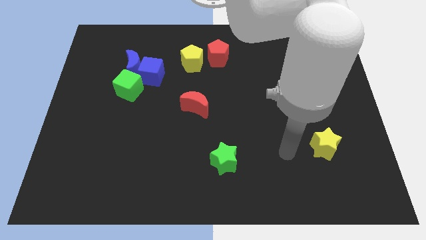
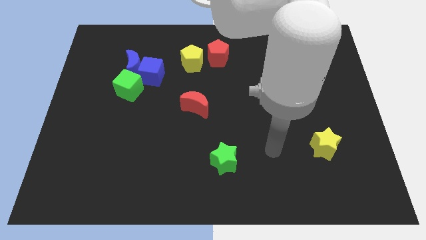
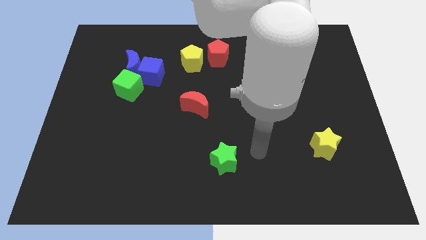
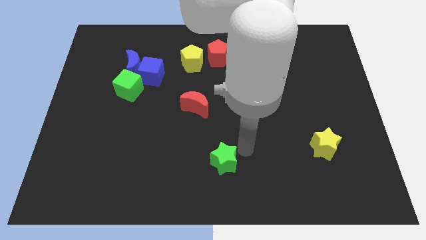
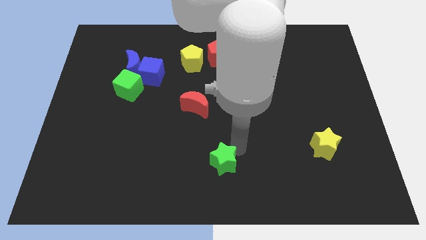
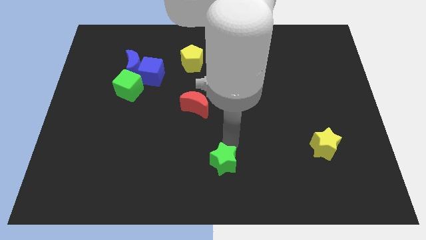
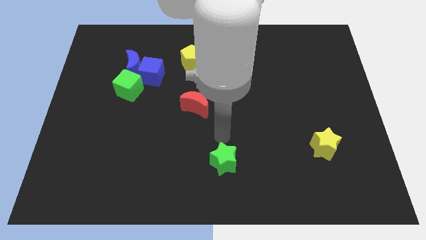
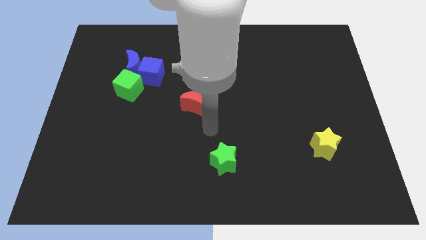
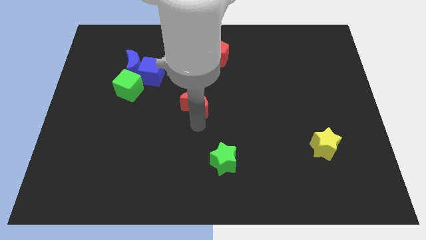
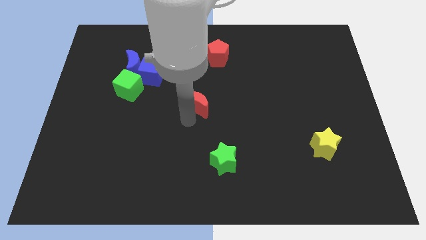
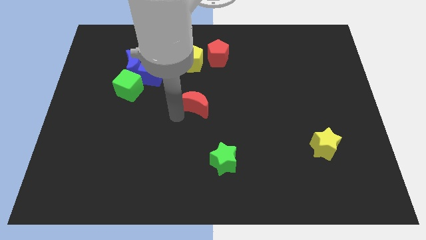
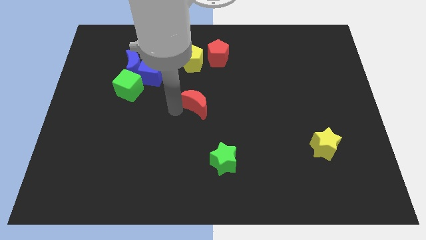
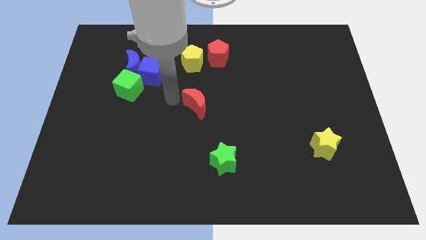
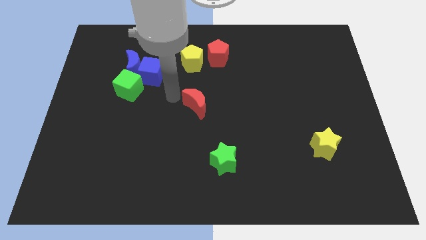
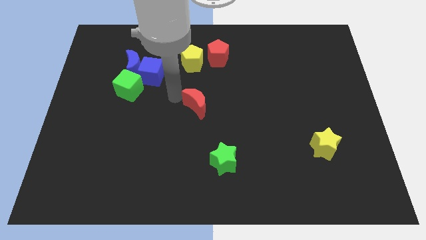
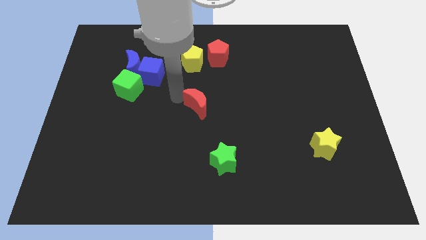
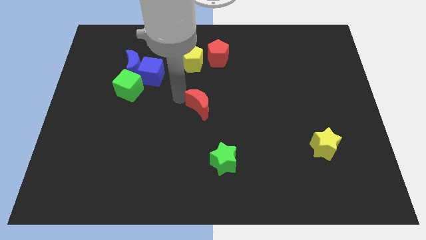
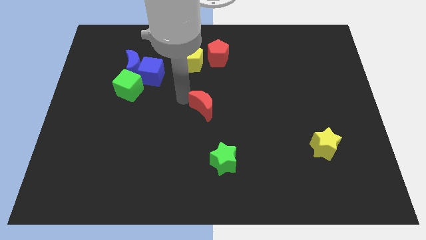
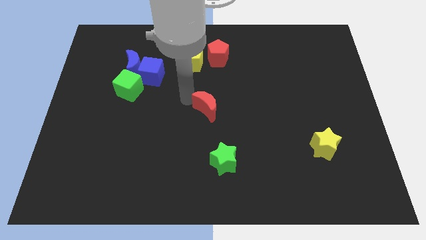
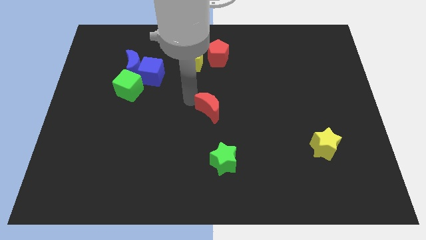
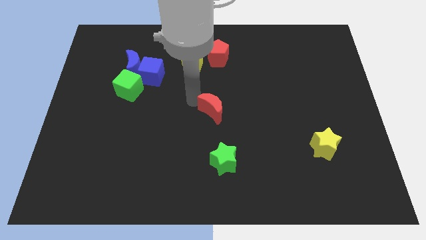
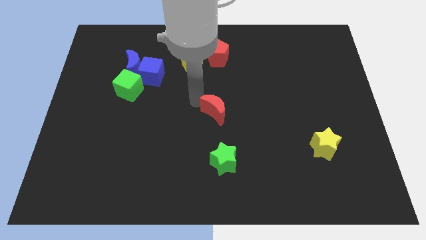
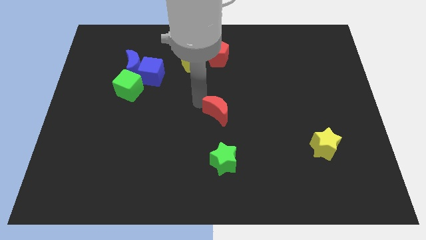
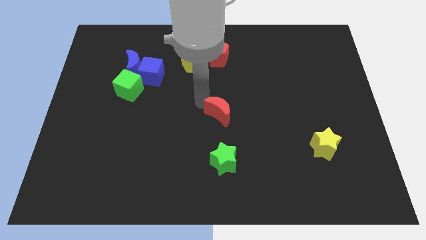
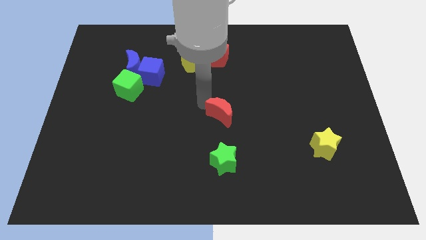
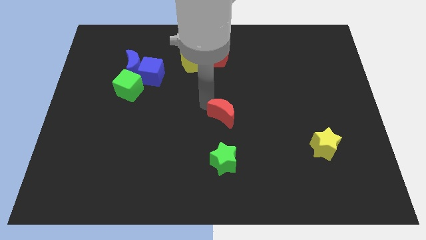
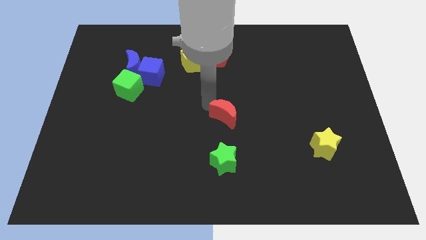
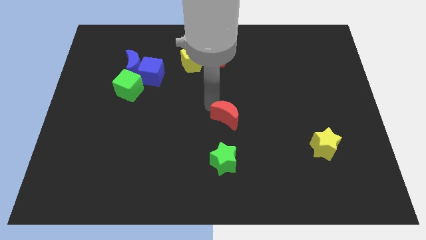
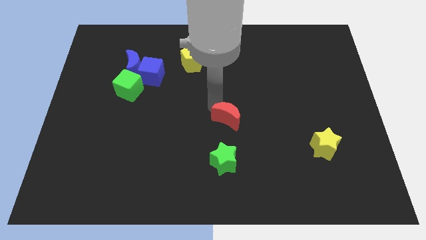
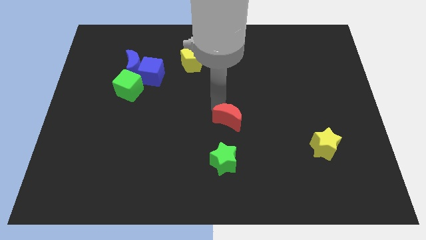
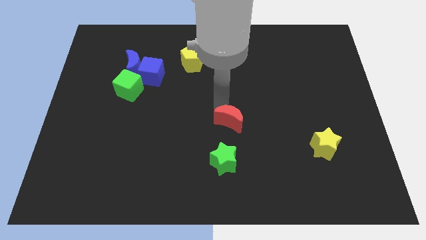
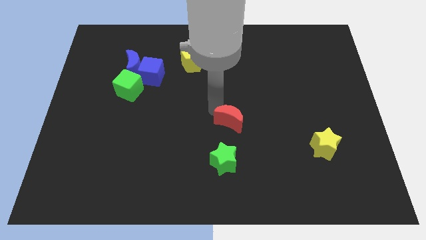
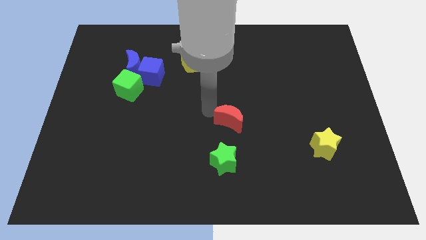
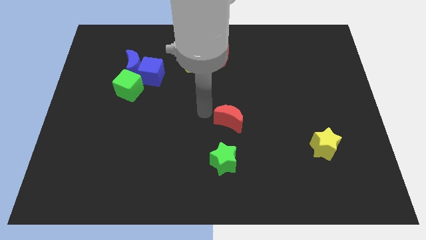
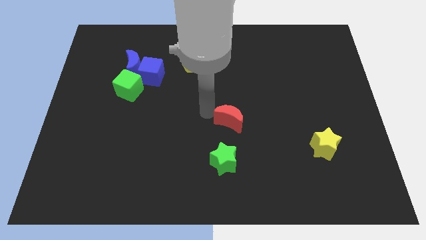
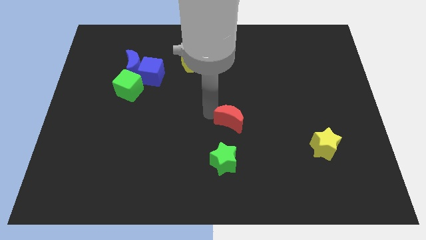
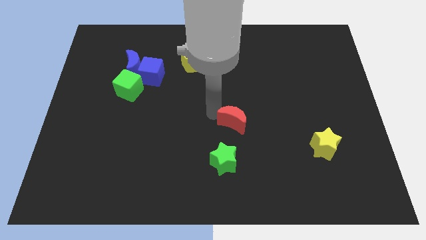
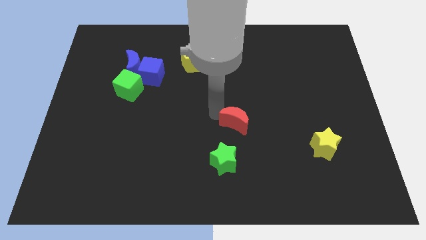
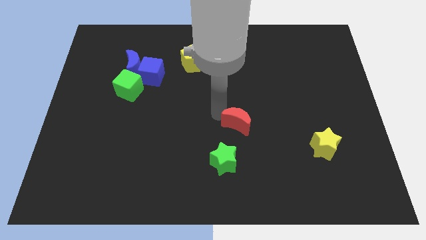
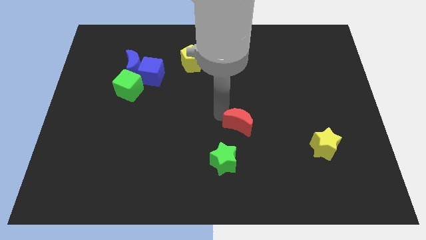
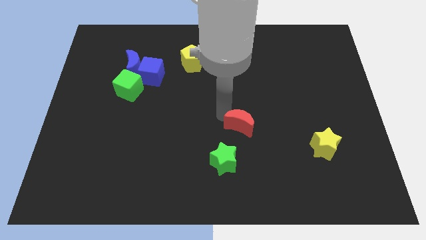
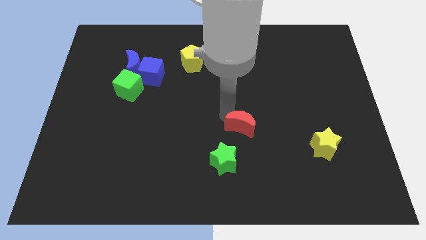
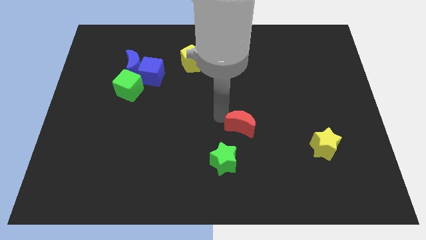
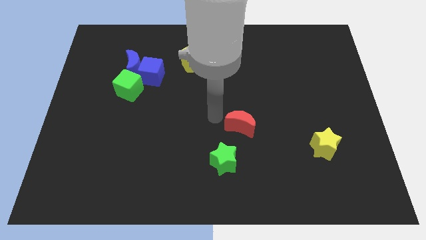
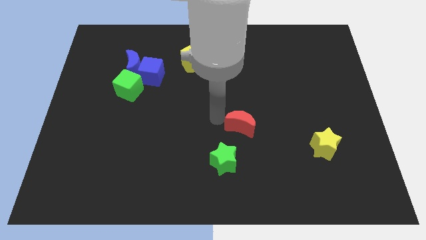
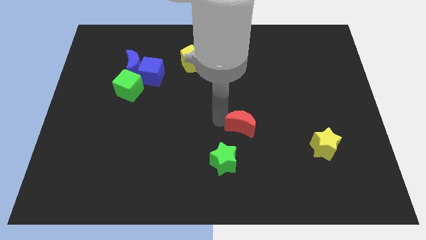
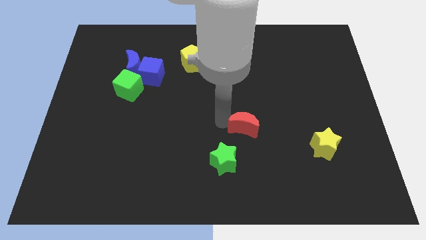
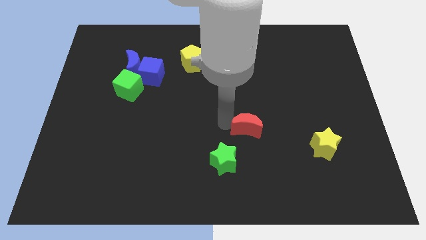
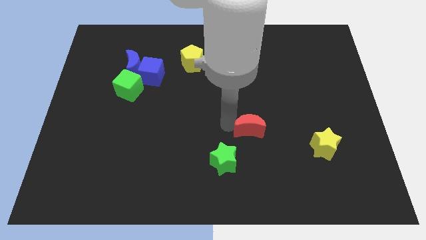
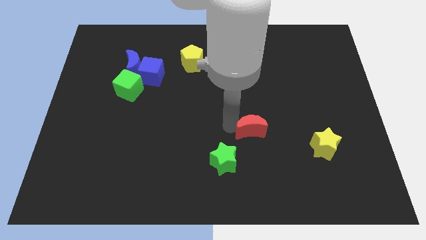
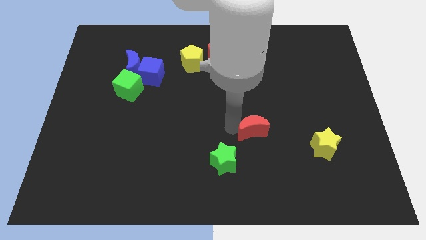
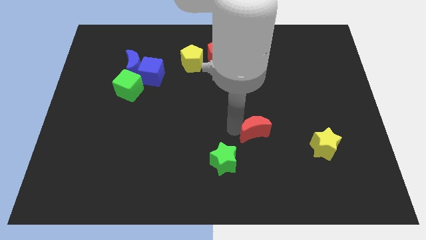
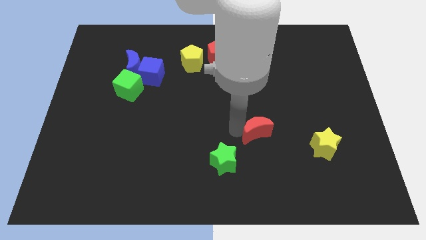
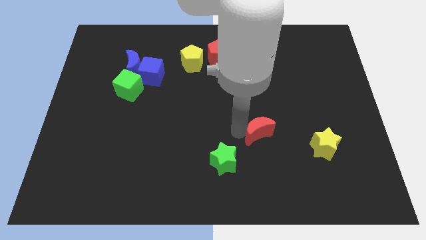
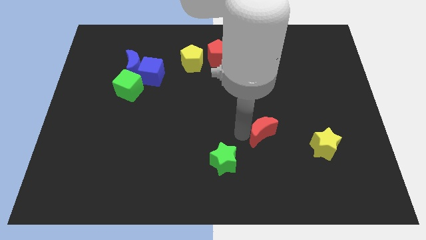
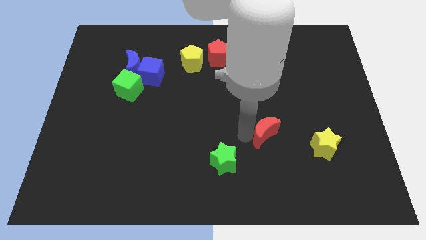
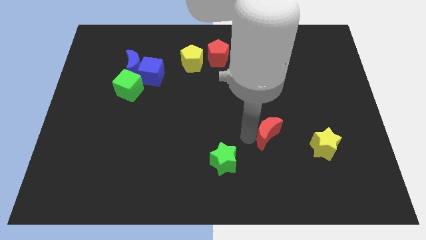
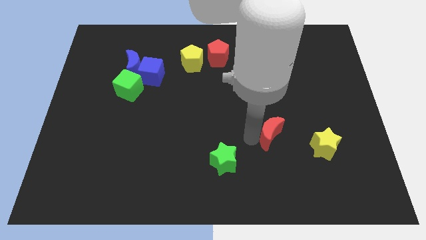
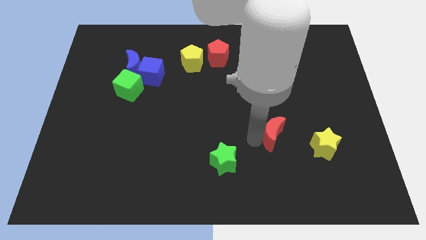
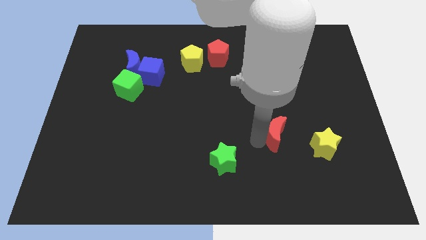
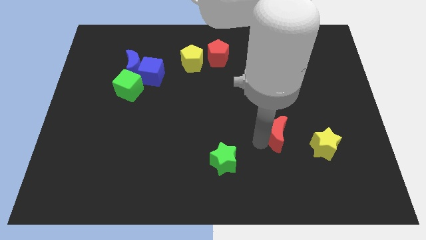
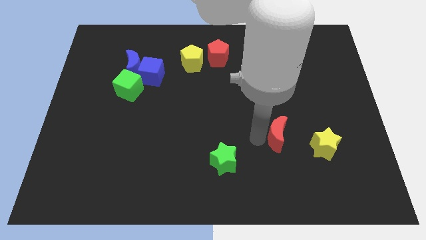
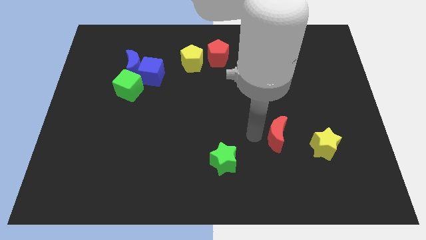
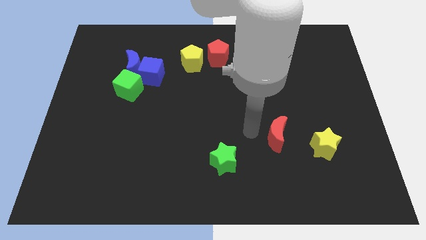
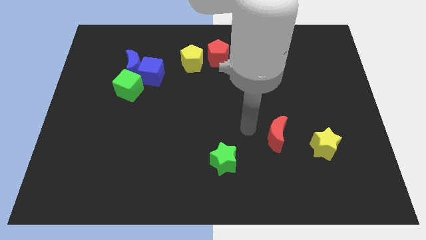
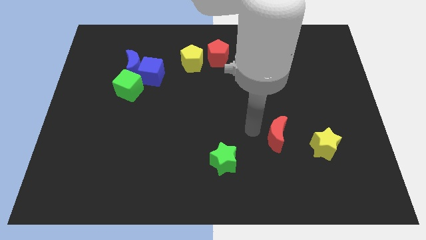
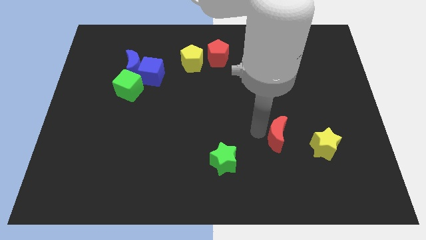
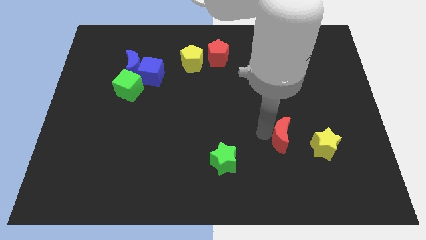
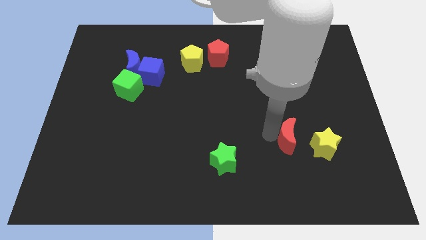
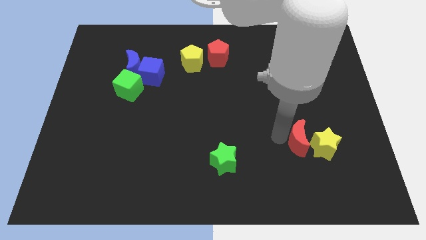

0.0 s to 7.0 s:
push the red moon next to the yellow star

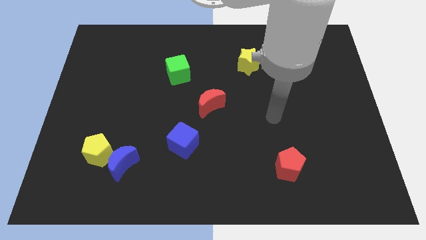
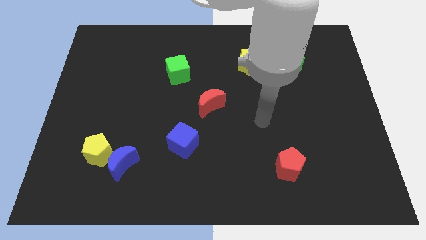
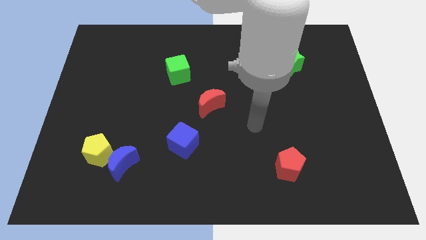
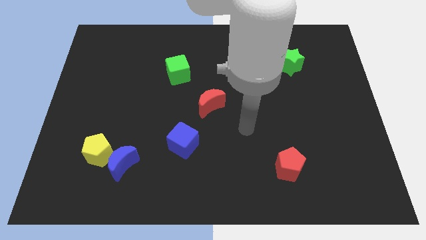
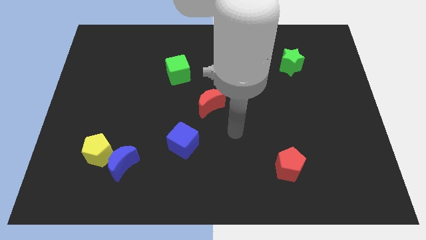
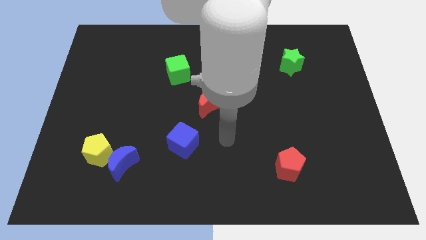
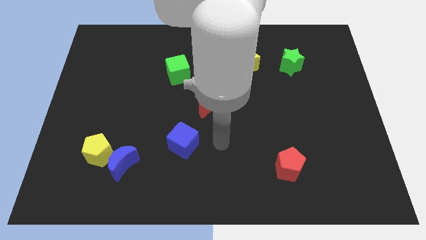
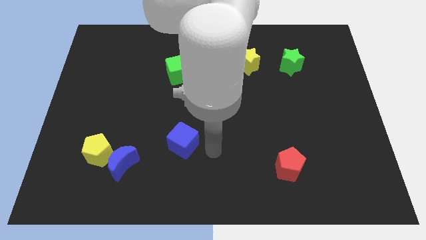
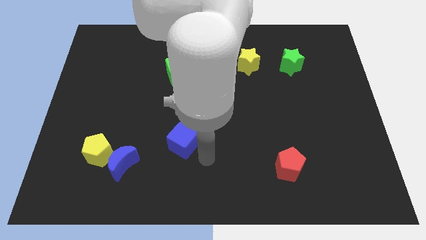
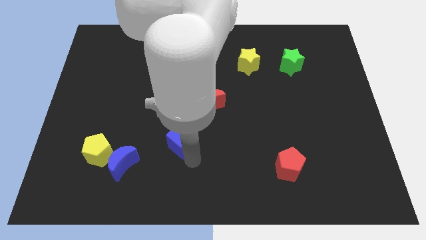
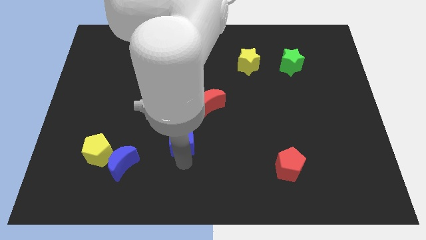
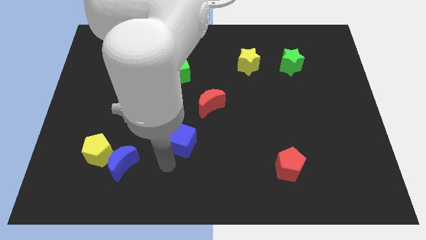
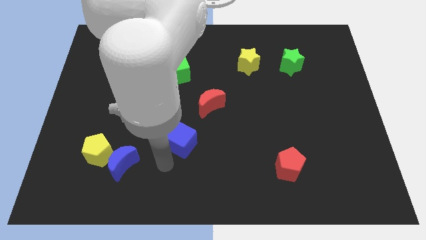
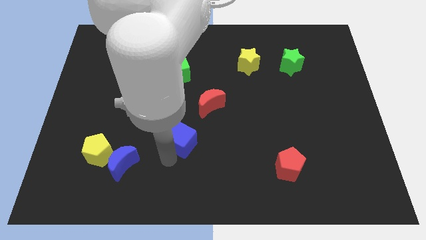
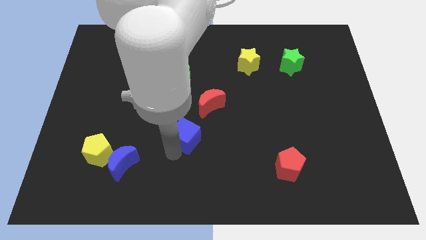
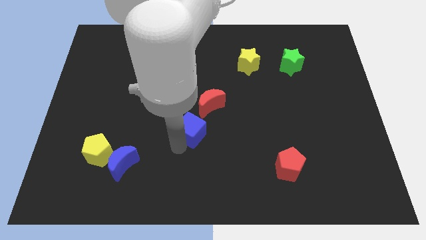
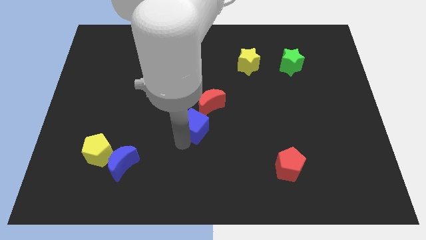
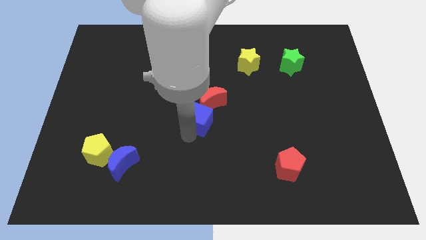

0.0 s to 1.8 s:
move the blue cube to the red moon
